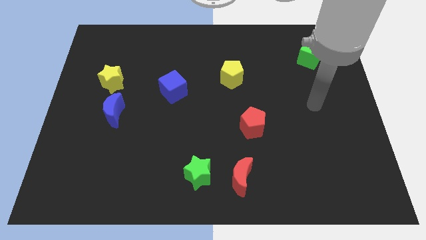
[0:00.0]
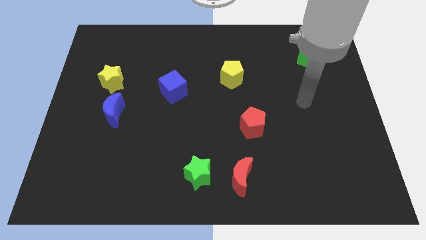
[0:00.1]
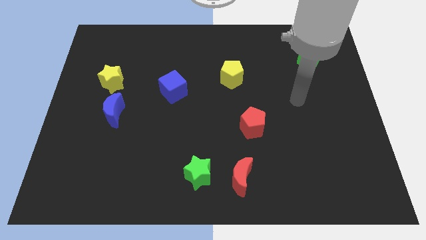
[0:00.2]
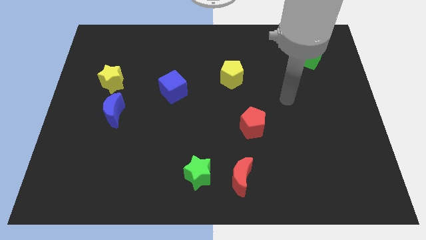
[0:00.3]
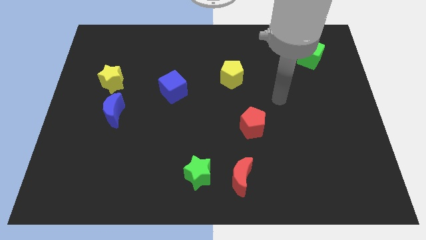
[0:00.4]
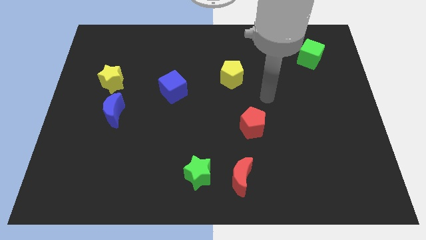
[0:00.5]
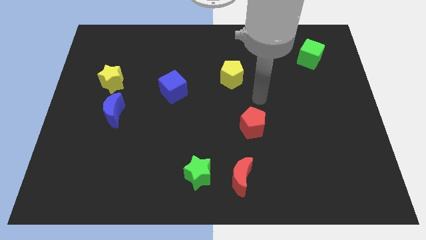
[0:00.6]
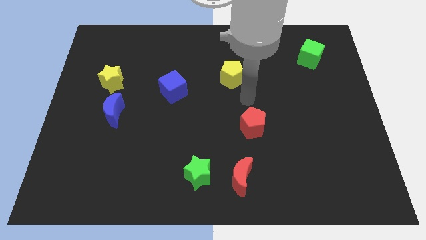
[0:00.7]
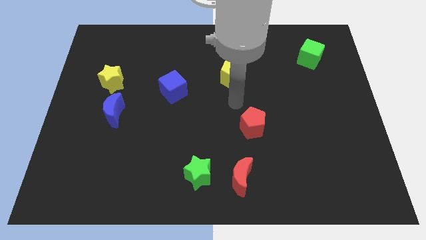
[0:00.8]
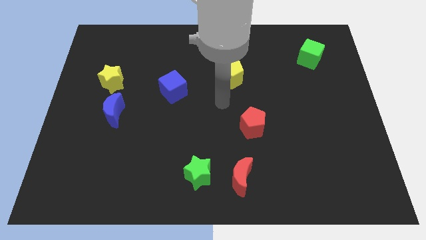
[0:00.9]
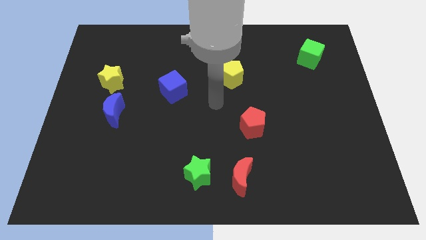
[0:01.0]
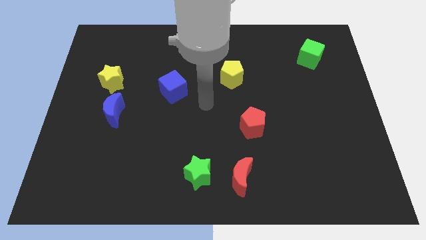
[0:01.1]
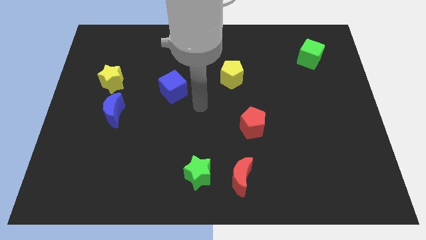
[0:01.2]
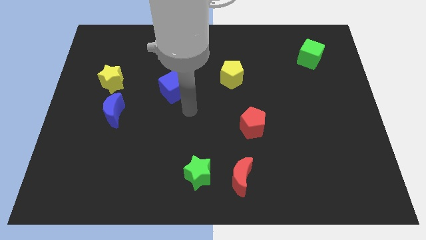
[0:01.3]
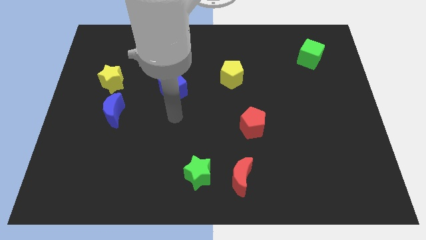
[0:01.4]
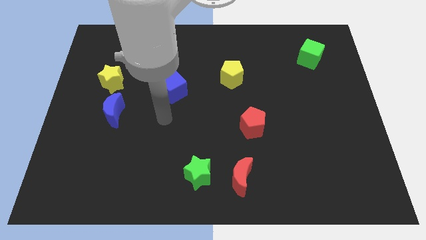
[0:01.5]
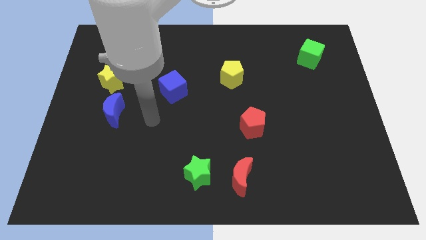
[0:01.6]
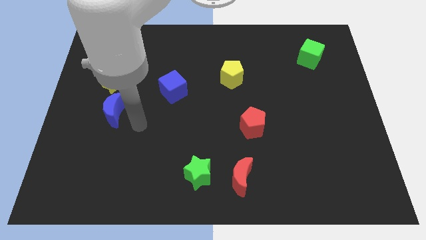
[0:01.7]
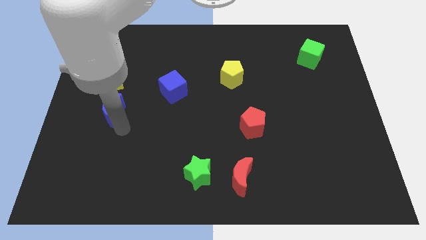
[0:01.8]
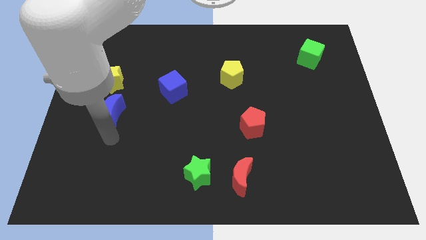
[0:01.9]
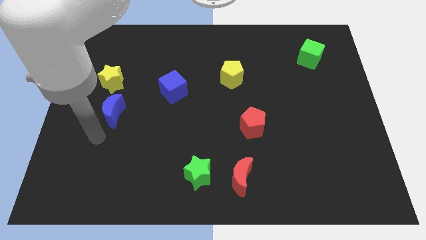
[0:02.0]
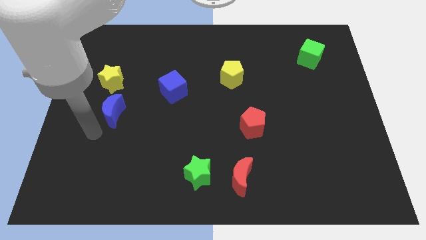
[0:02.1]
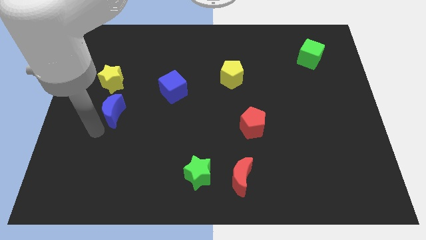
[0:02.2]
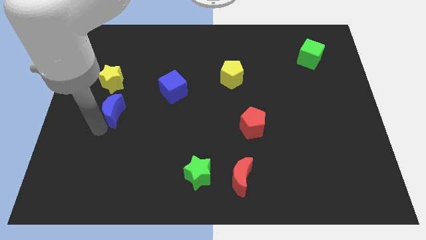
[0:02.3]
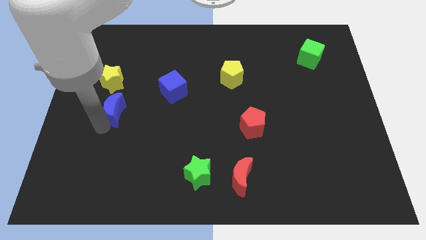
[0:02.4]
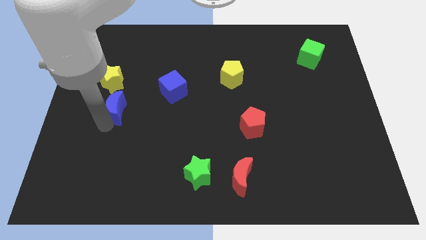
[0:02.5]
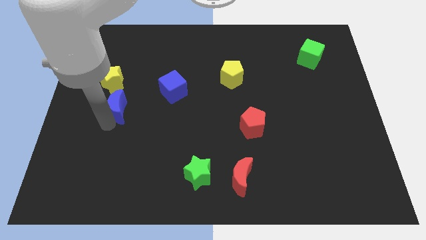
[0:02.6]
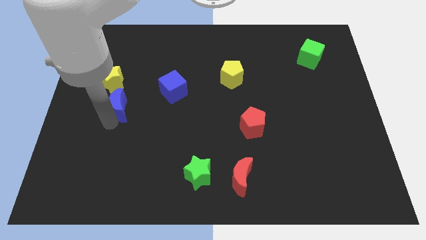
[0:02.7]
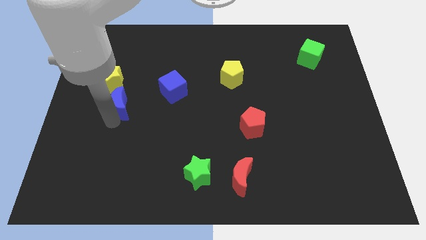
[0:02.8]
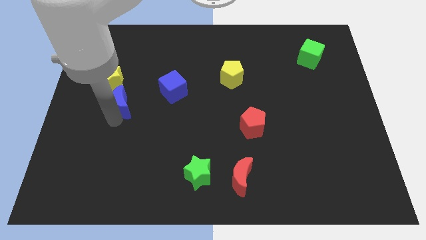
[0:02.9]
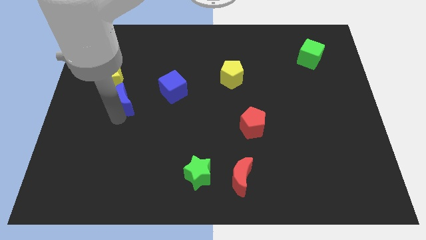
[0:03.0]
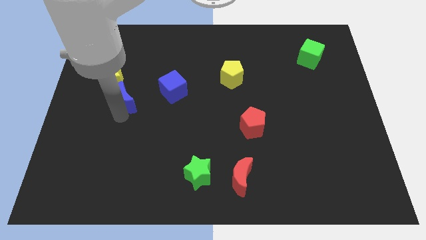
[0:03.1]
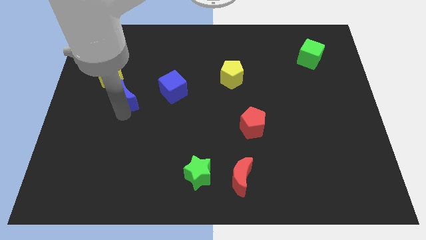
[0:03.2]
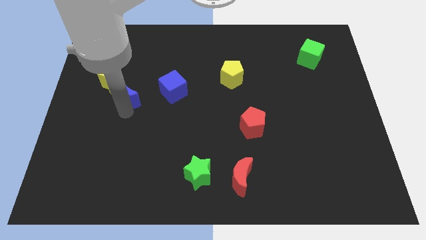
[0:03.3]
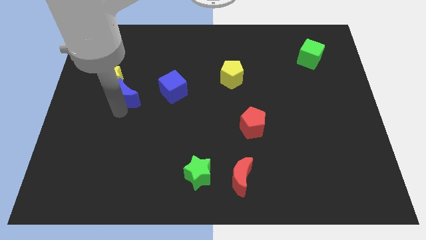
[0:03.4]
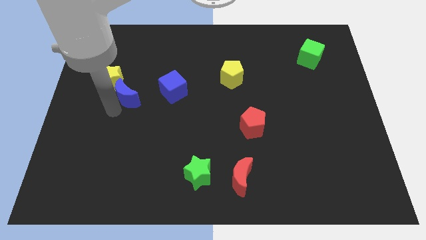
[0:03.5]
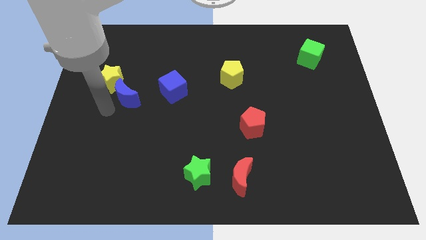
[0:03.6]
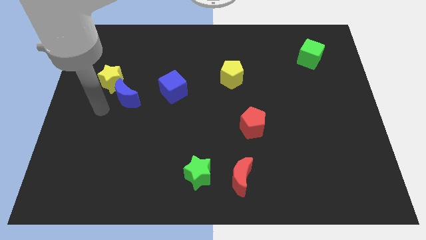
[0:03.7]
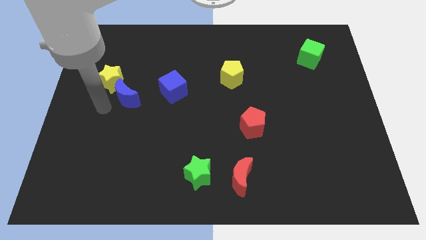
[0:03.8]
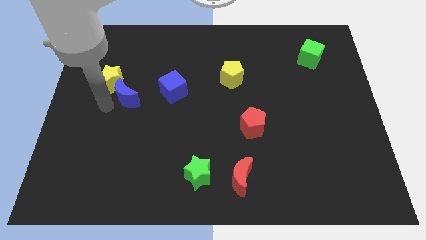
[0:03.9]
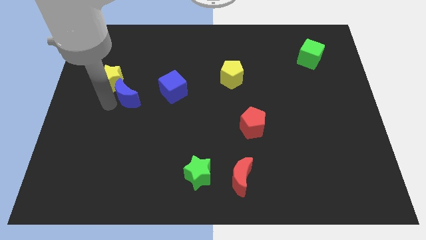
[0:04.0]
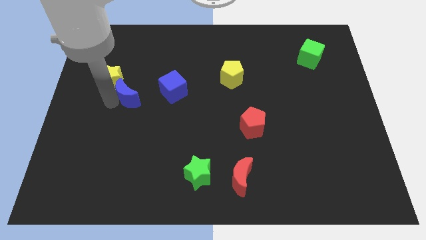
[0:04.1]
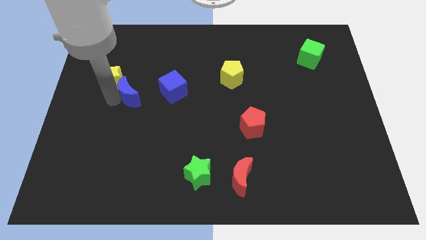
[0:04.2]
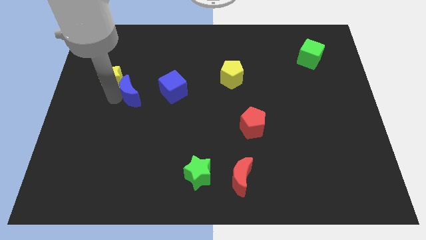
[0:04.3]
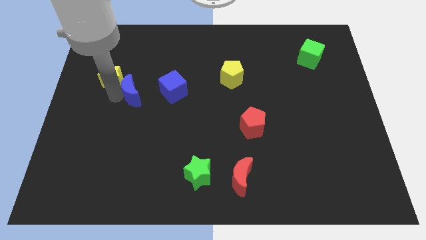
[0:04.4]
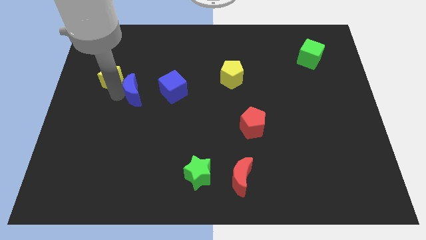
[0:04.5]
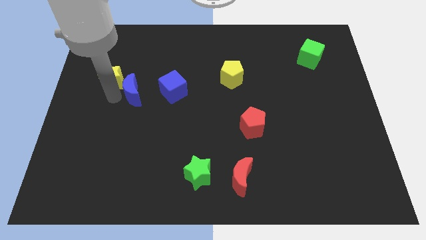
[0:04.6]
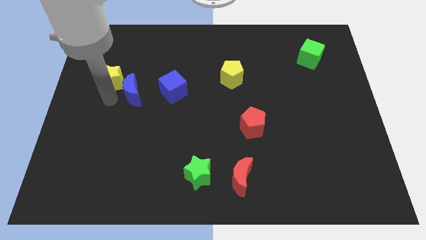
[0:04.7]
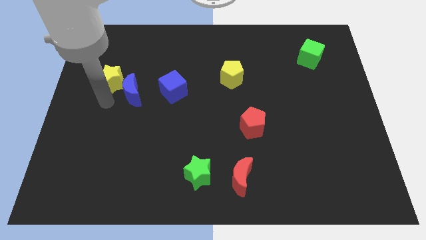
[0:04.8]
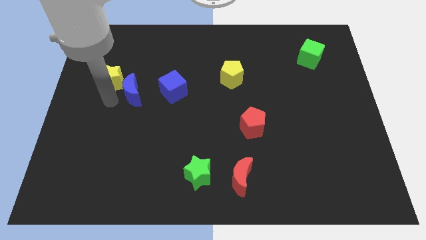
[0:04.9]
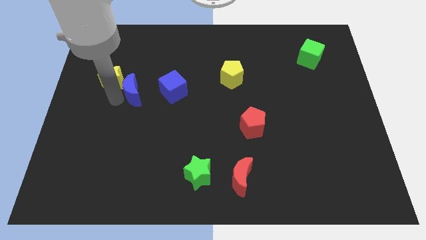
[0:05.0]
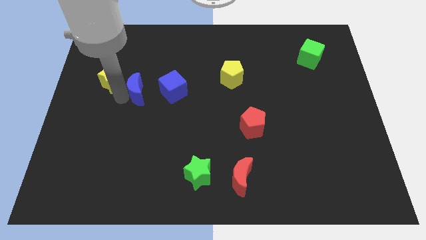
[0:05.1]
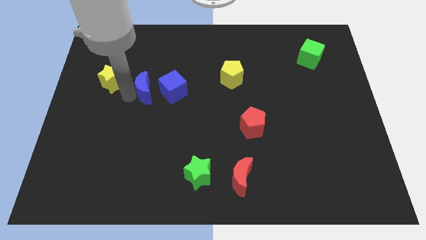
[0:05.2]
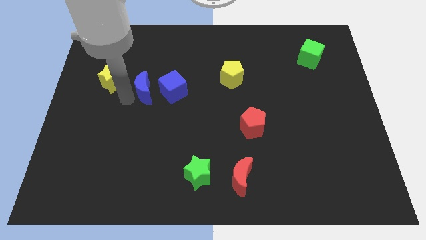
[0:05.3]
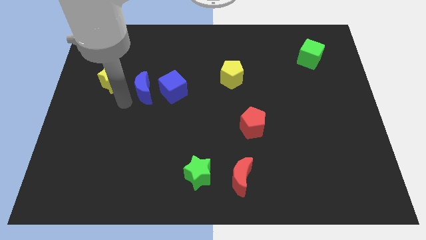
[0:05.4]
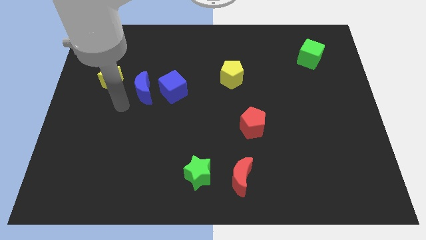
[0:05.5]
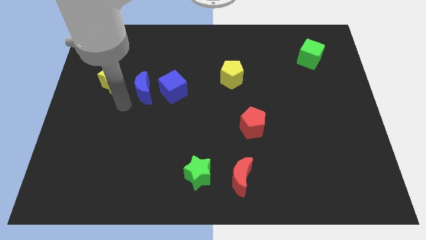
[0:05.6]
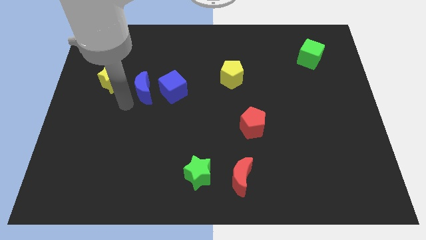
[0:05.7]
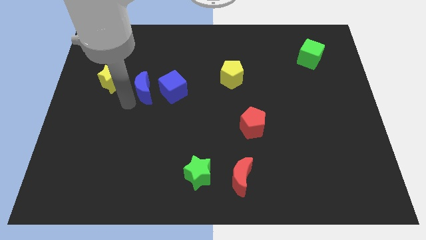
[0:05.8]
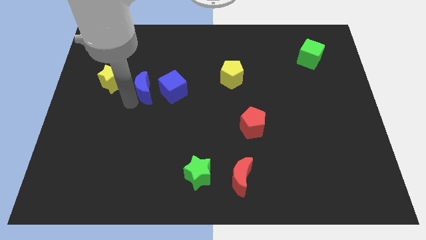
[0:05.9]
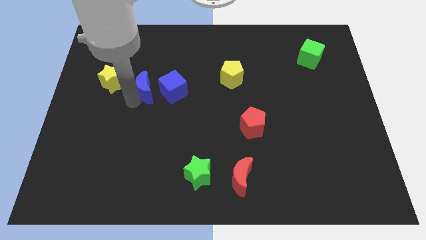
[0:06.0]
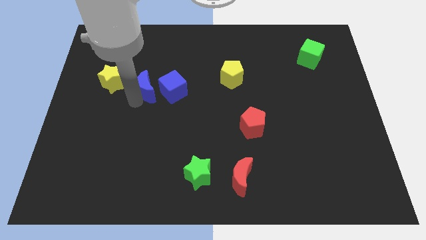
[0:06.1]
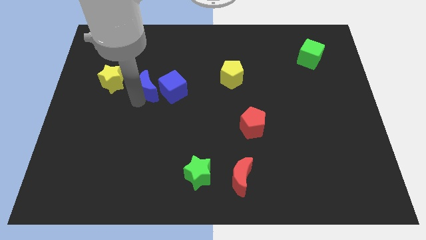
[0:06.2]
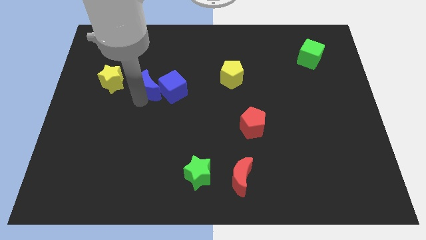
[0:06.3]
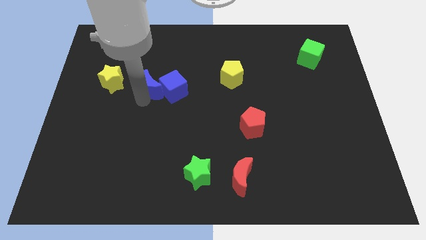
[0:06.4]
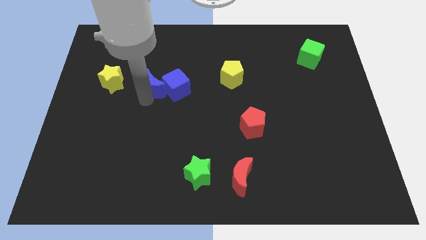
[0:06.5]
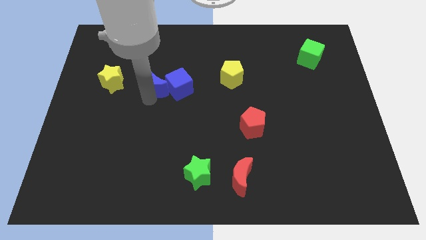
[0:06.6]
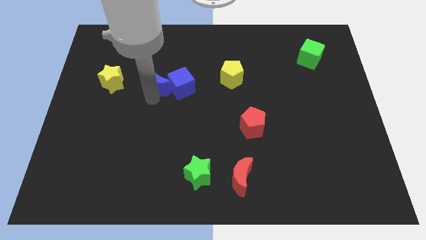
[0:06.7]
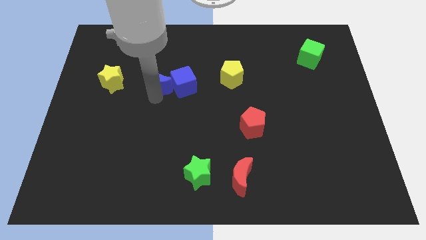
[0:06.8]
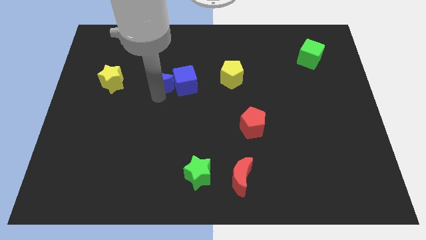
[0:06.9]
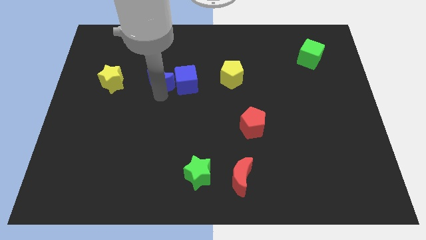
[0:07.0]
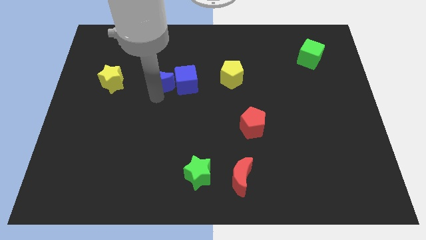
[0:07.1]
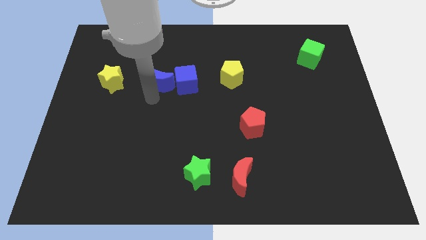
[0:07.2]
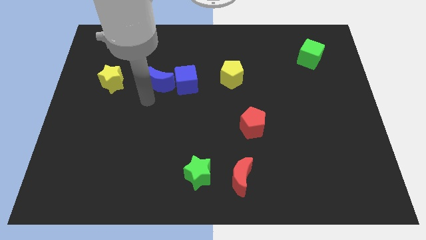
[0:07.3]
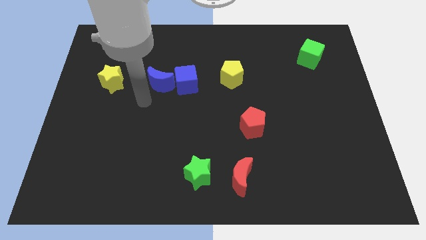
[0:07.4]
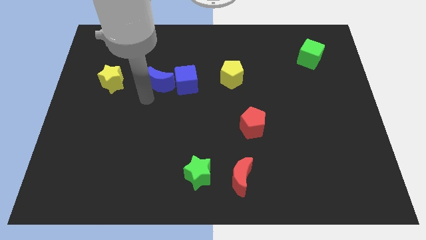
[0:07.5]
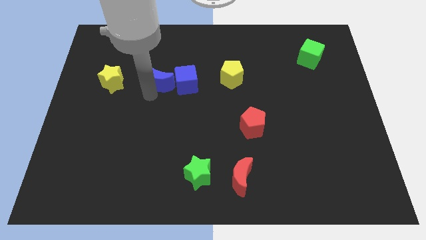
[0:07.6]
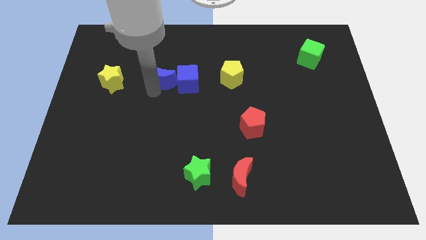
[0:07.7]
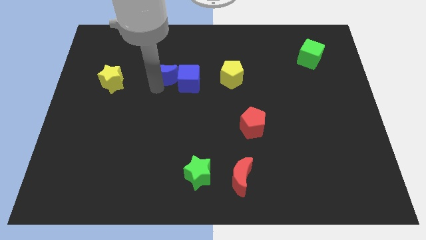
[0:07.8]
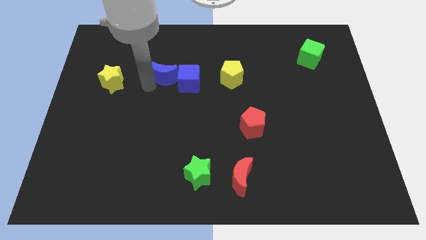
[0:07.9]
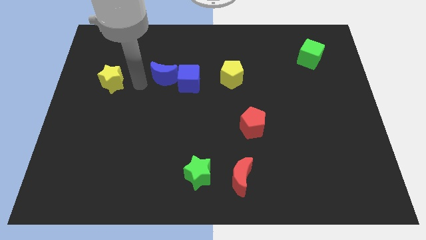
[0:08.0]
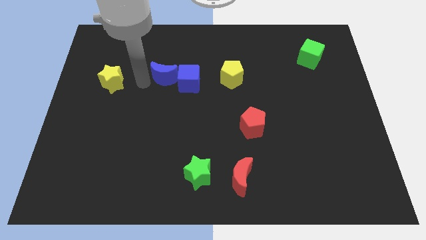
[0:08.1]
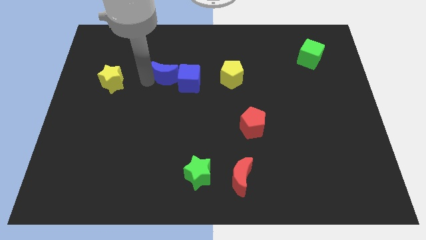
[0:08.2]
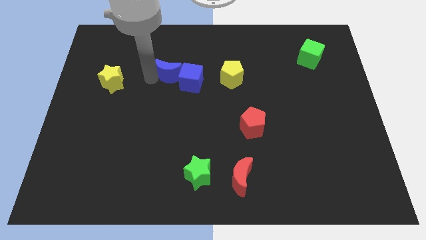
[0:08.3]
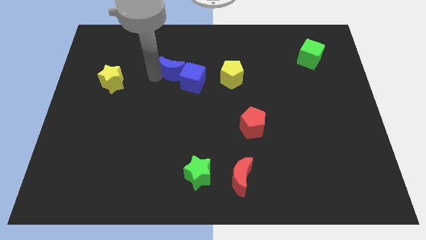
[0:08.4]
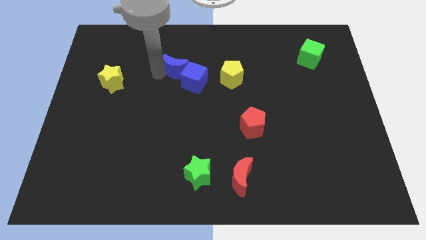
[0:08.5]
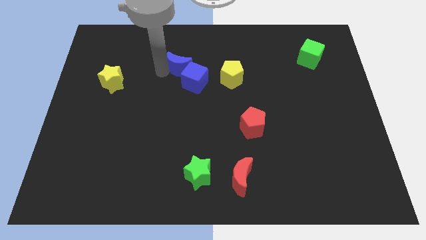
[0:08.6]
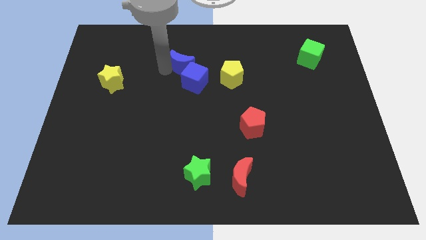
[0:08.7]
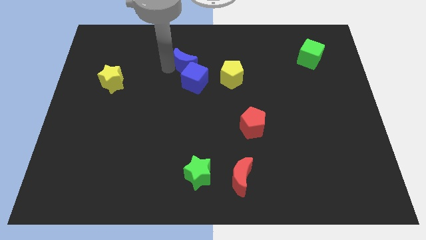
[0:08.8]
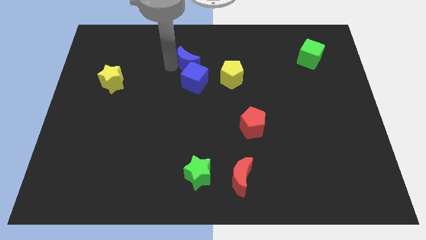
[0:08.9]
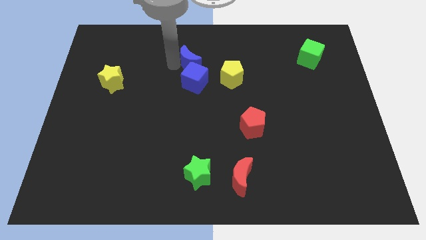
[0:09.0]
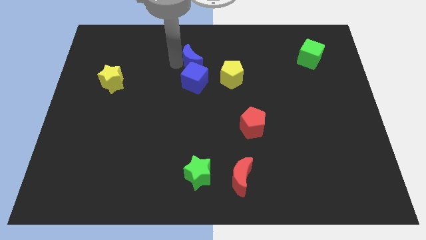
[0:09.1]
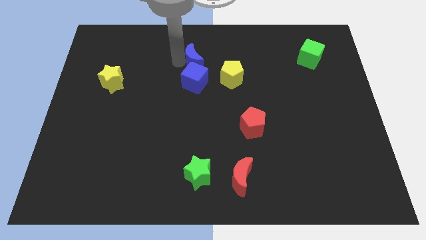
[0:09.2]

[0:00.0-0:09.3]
push the blue moon to the top right side of the blue cube
